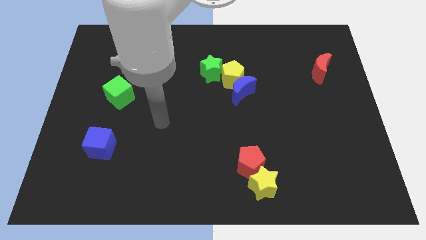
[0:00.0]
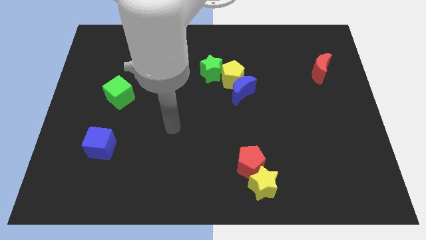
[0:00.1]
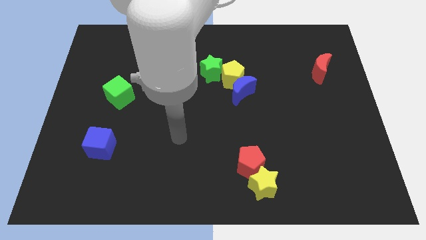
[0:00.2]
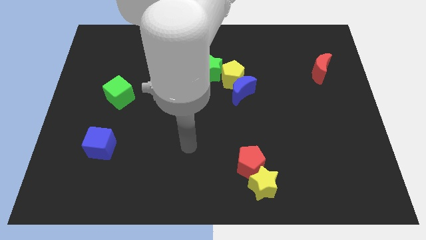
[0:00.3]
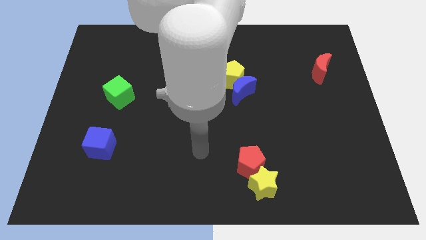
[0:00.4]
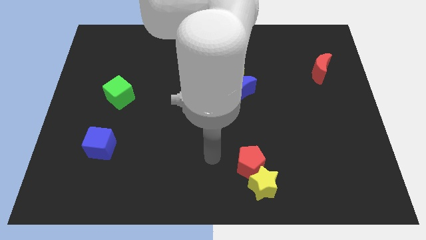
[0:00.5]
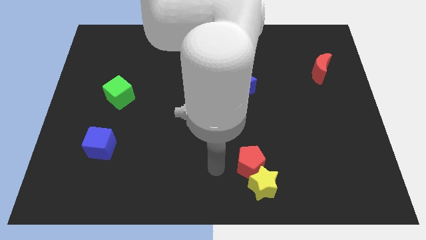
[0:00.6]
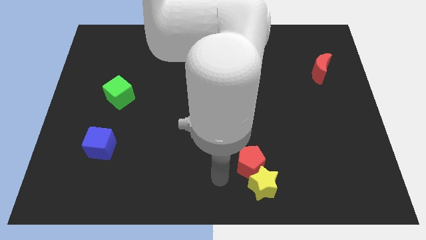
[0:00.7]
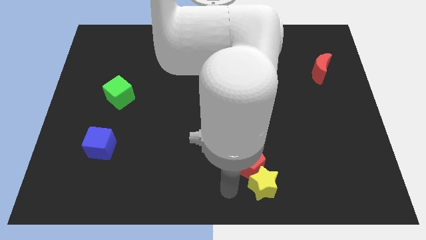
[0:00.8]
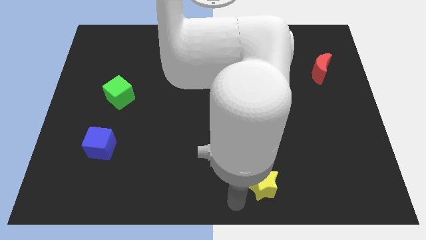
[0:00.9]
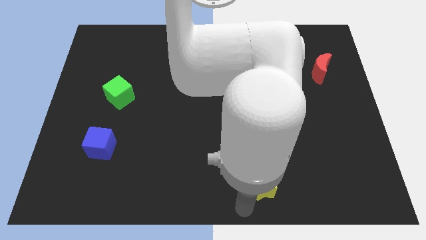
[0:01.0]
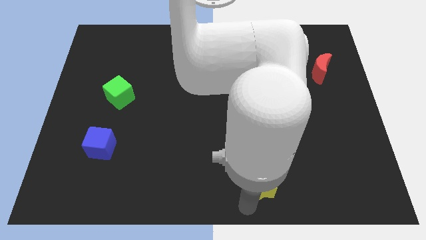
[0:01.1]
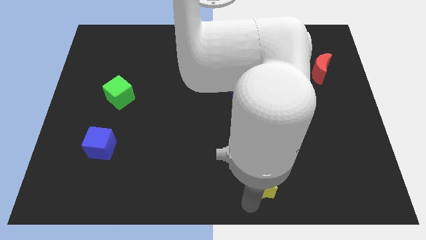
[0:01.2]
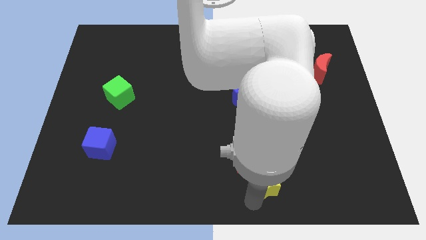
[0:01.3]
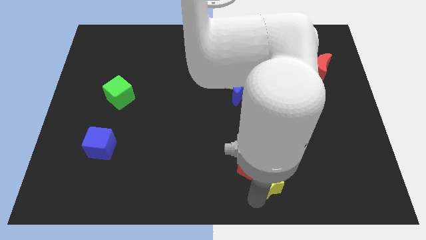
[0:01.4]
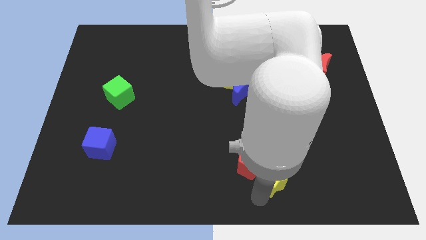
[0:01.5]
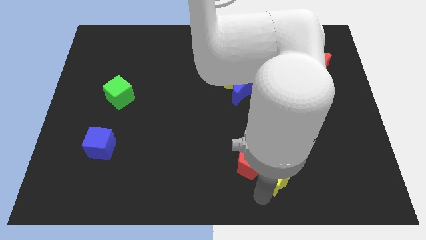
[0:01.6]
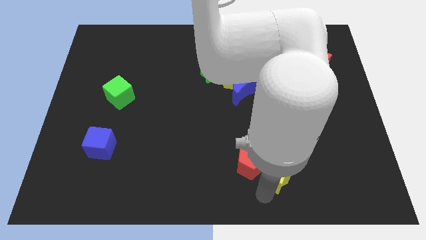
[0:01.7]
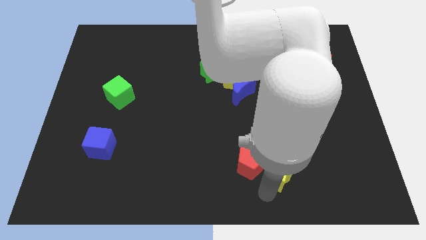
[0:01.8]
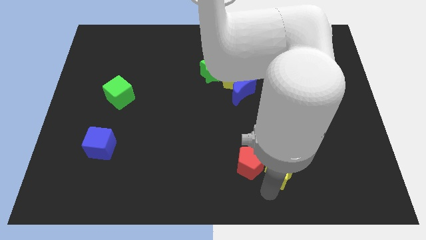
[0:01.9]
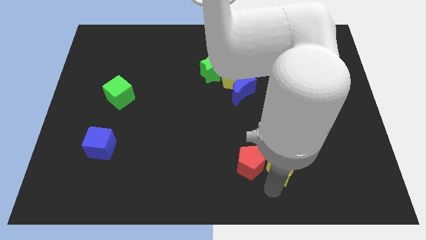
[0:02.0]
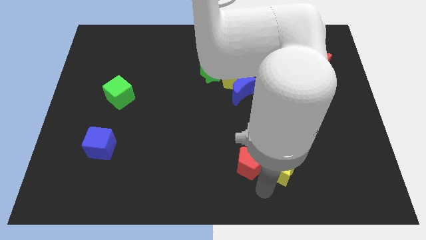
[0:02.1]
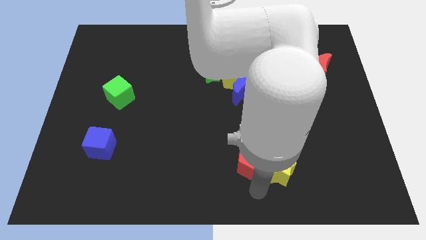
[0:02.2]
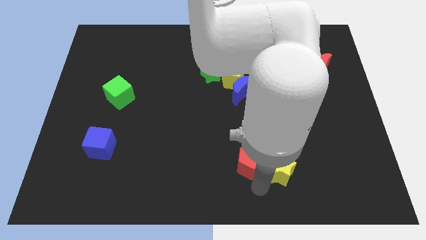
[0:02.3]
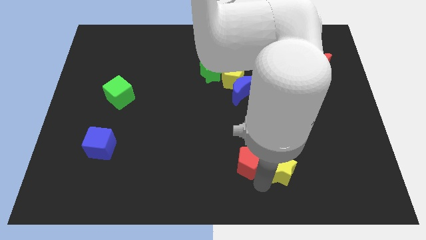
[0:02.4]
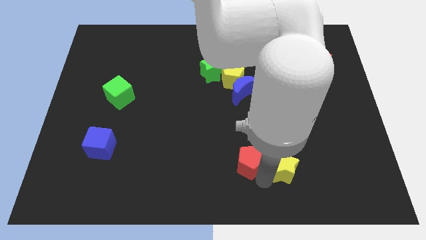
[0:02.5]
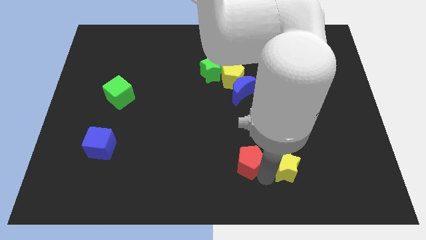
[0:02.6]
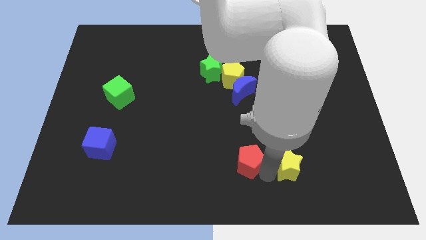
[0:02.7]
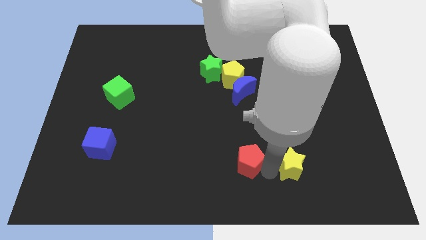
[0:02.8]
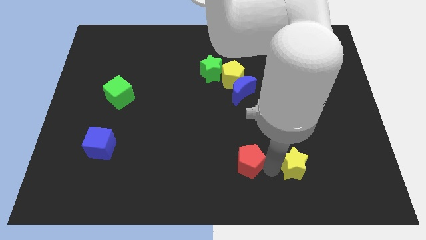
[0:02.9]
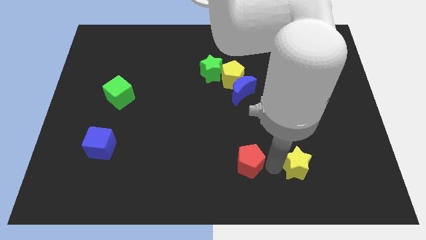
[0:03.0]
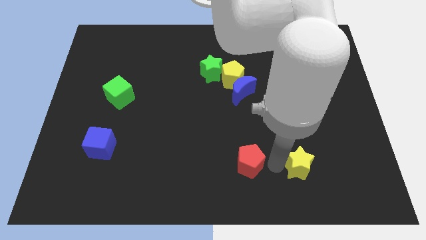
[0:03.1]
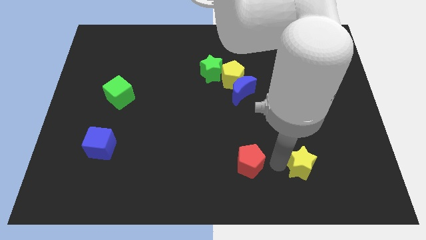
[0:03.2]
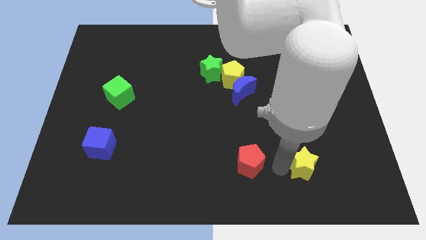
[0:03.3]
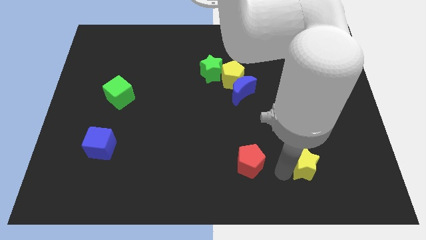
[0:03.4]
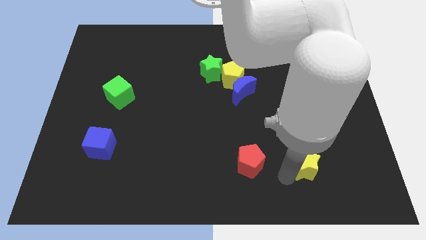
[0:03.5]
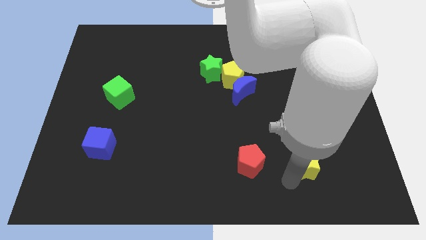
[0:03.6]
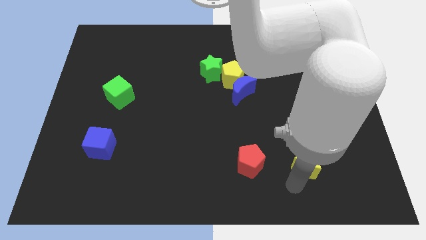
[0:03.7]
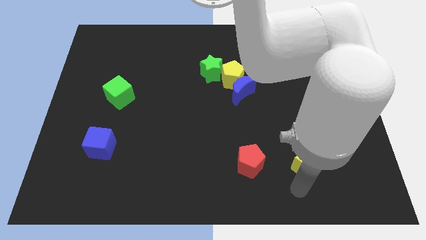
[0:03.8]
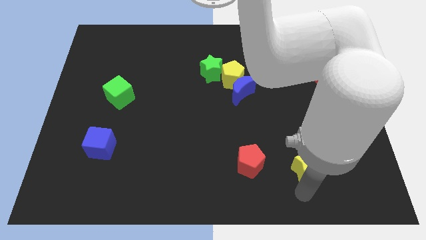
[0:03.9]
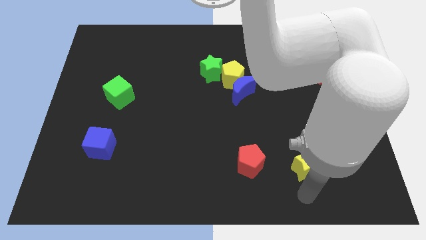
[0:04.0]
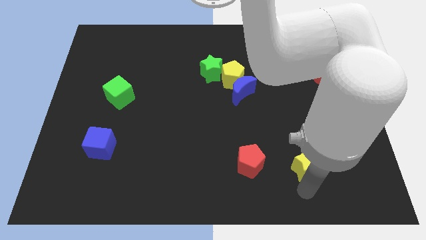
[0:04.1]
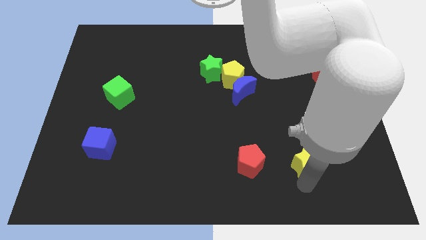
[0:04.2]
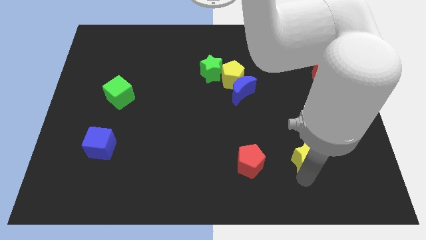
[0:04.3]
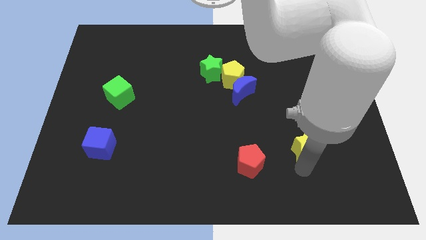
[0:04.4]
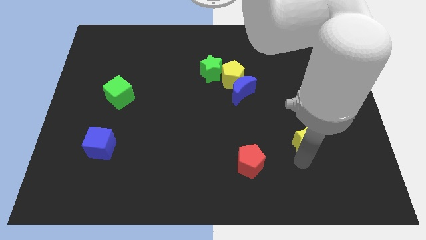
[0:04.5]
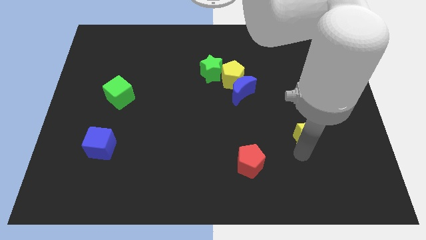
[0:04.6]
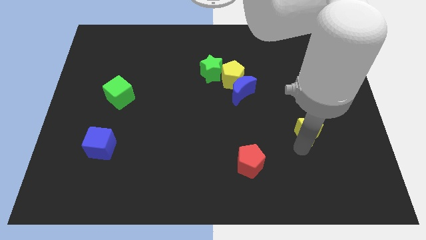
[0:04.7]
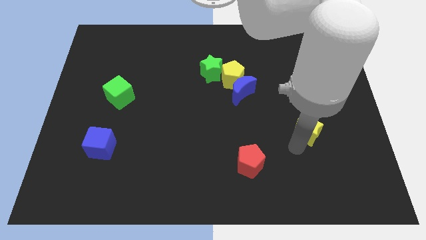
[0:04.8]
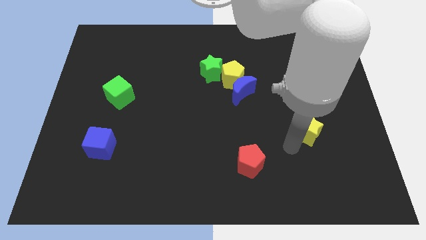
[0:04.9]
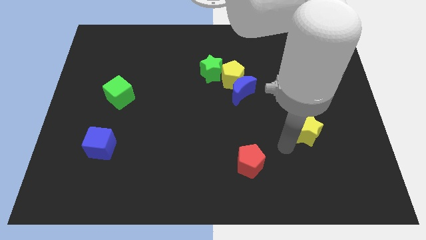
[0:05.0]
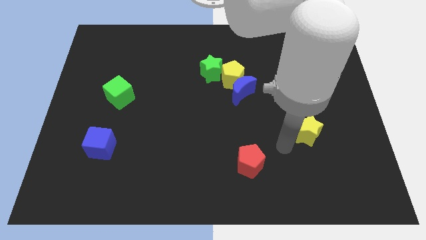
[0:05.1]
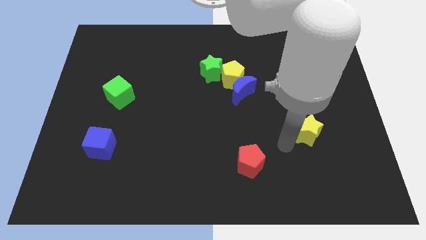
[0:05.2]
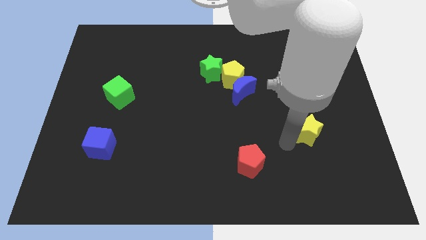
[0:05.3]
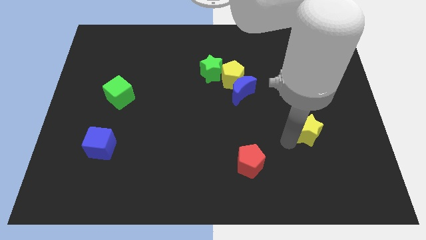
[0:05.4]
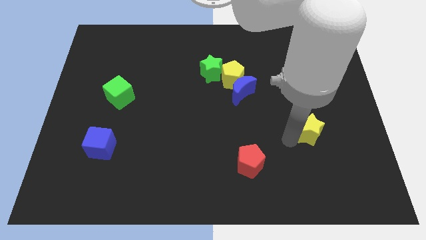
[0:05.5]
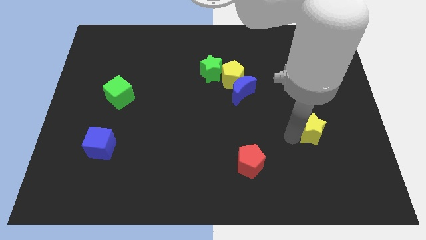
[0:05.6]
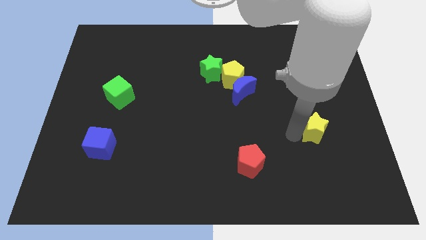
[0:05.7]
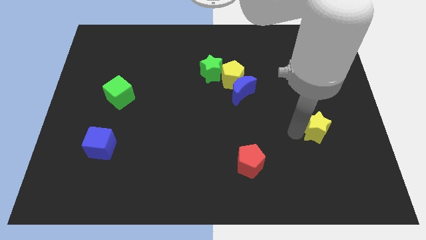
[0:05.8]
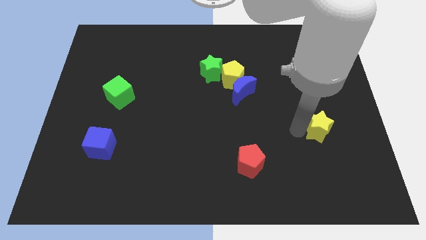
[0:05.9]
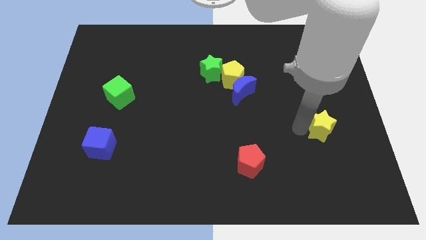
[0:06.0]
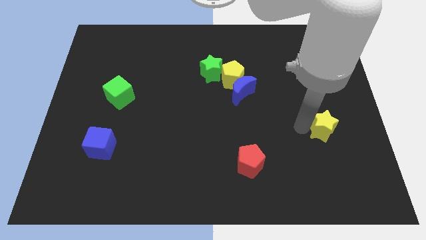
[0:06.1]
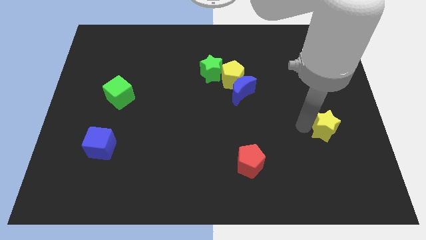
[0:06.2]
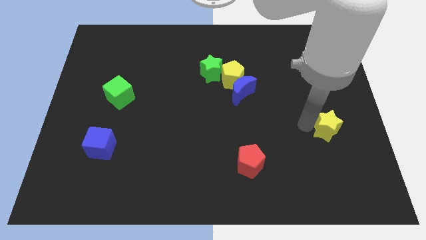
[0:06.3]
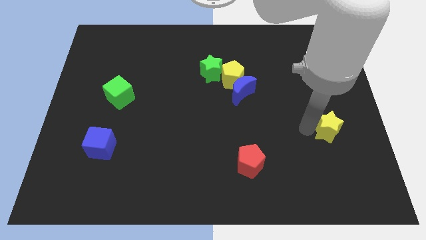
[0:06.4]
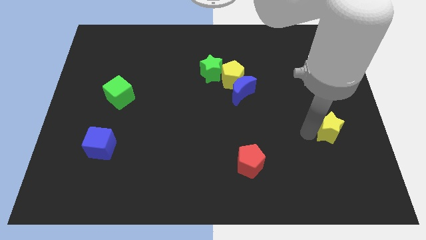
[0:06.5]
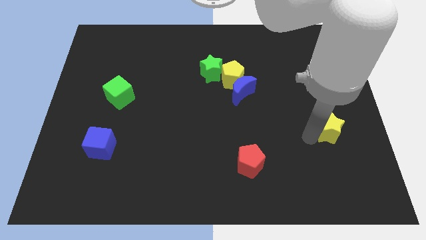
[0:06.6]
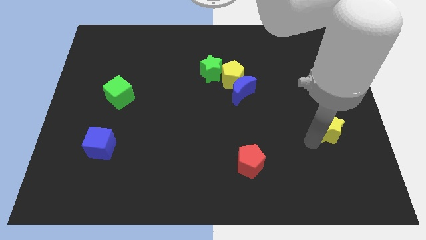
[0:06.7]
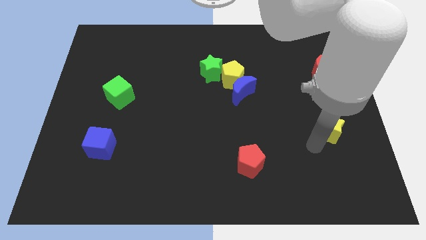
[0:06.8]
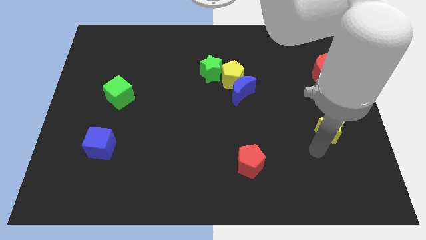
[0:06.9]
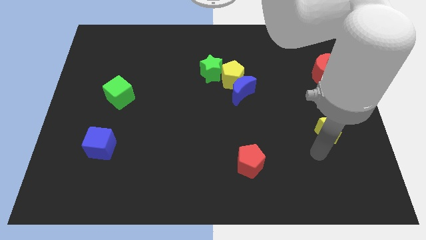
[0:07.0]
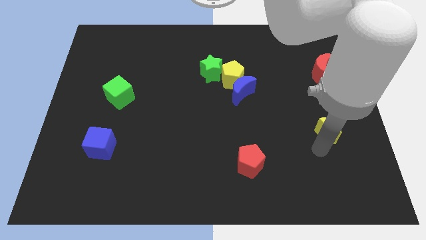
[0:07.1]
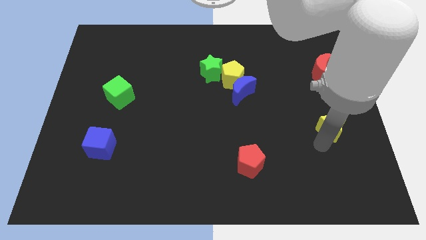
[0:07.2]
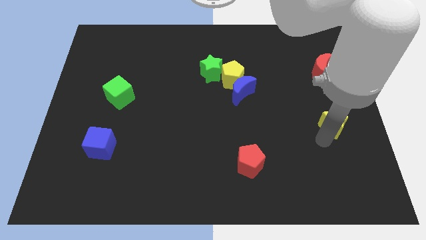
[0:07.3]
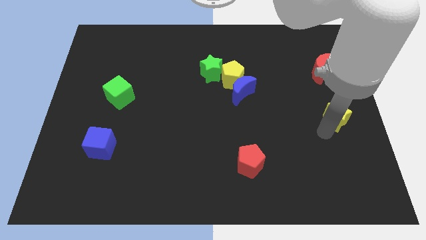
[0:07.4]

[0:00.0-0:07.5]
move the yellow star to the right side of the board
